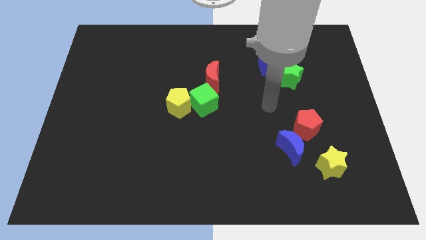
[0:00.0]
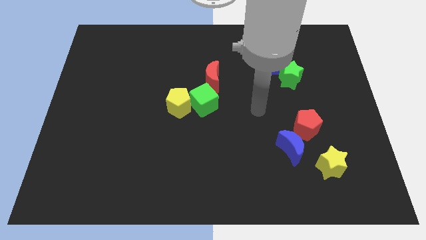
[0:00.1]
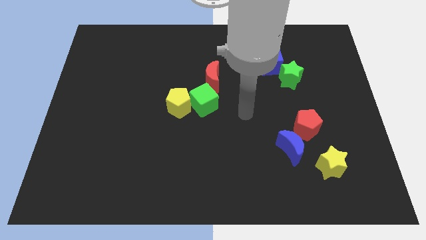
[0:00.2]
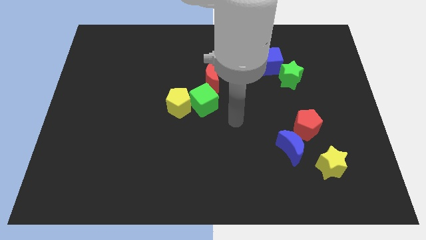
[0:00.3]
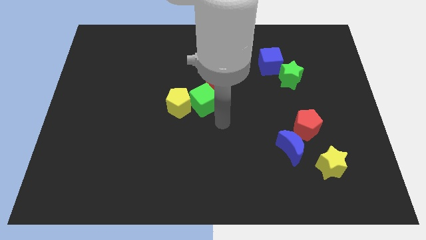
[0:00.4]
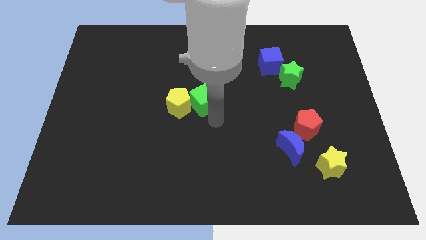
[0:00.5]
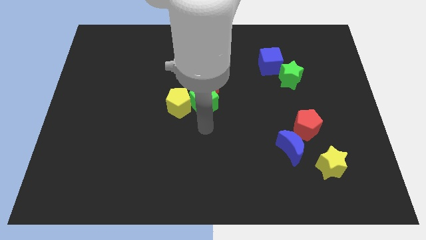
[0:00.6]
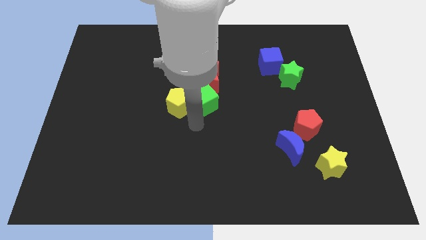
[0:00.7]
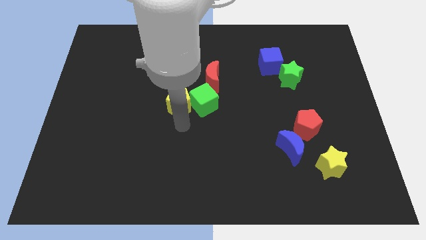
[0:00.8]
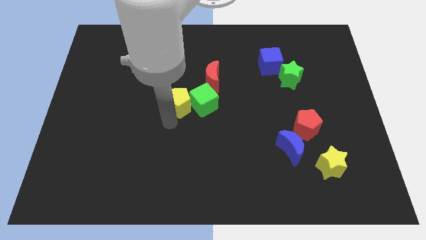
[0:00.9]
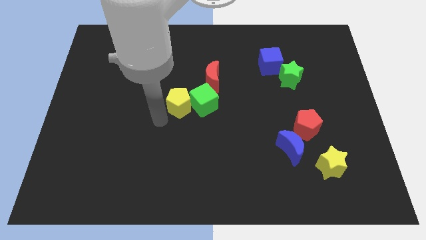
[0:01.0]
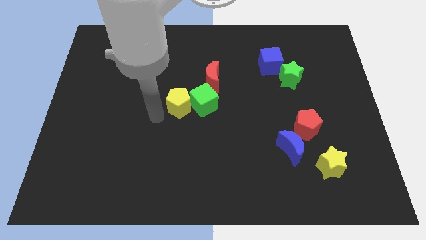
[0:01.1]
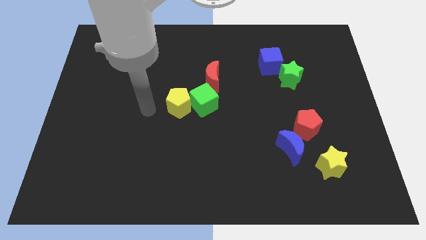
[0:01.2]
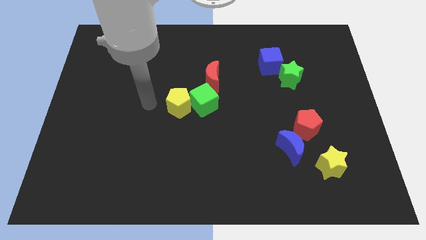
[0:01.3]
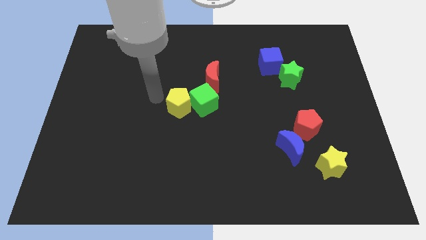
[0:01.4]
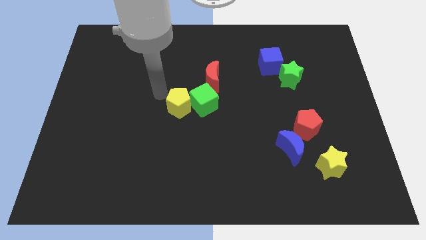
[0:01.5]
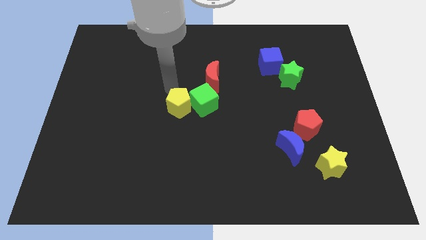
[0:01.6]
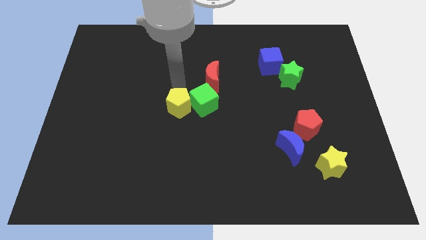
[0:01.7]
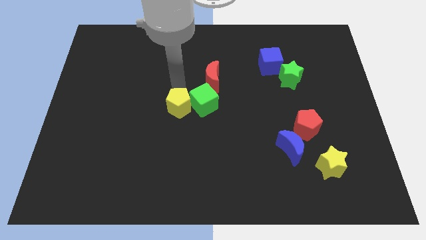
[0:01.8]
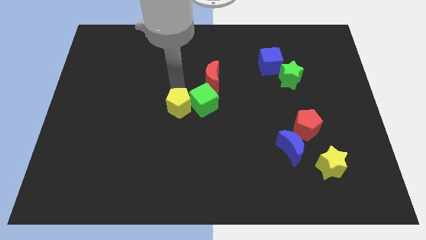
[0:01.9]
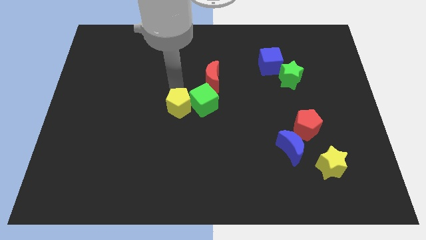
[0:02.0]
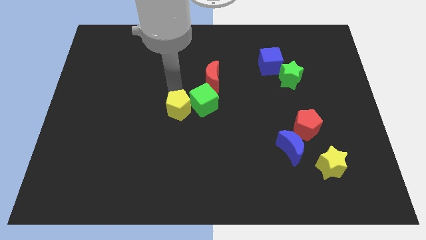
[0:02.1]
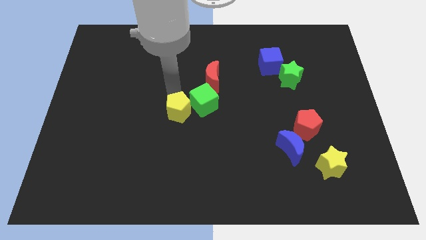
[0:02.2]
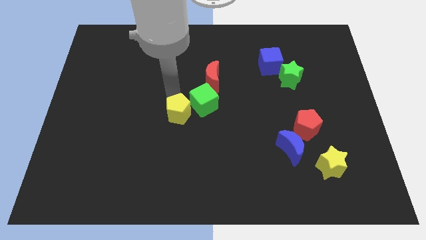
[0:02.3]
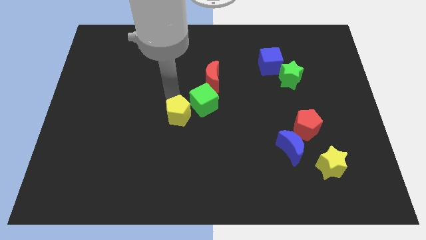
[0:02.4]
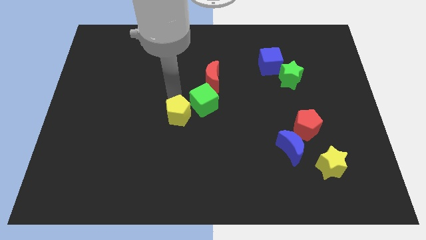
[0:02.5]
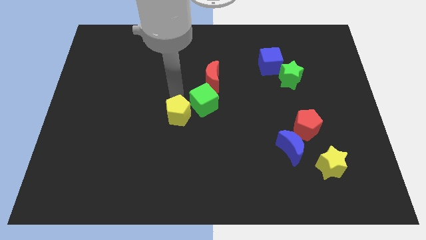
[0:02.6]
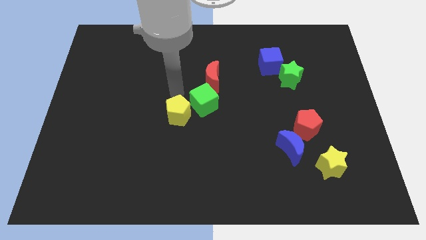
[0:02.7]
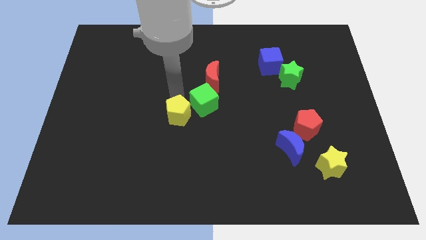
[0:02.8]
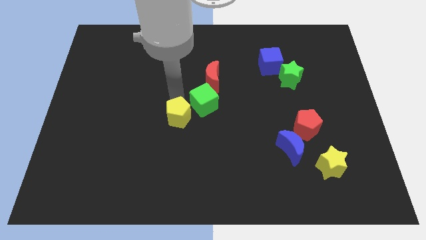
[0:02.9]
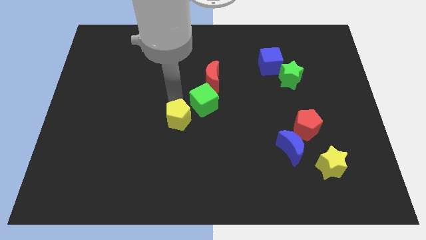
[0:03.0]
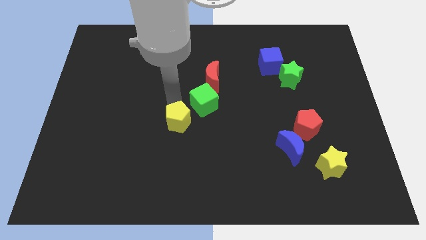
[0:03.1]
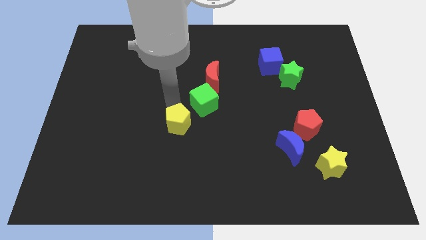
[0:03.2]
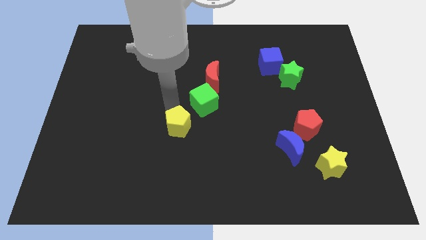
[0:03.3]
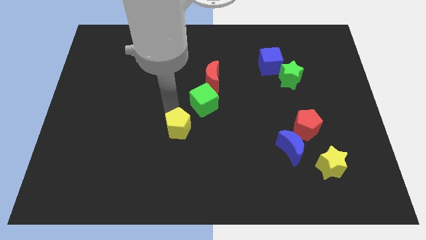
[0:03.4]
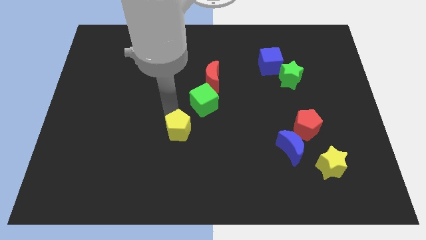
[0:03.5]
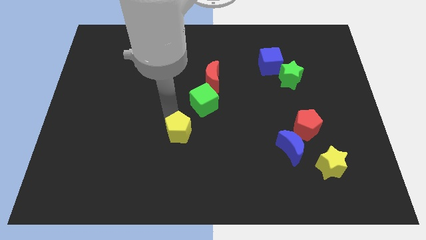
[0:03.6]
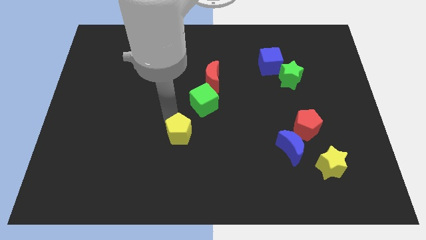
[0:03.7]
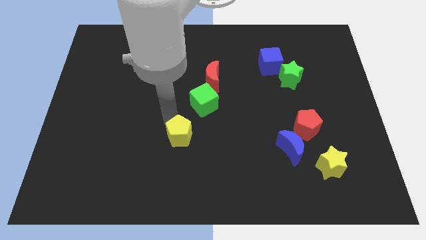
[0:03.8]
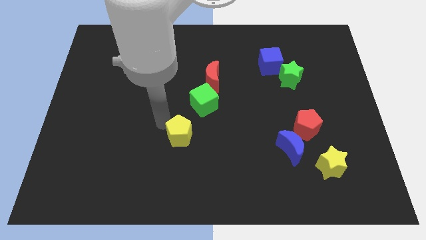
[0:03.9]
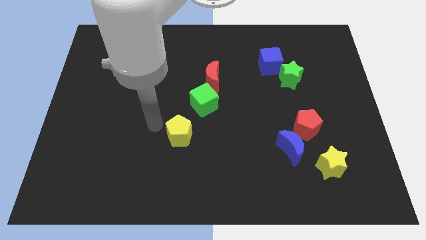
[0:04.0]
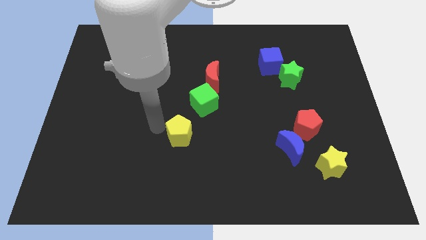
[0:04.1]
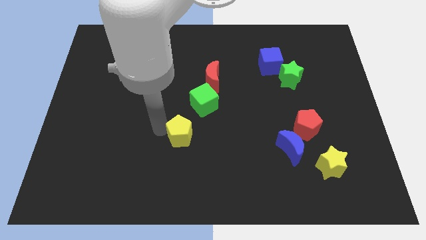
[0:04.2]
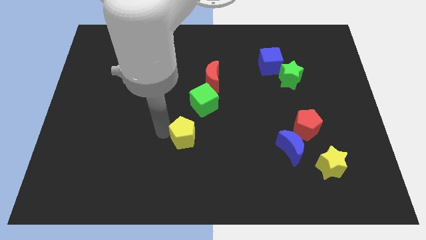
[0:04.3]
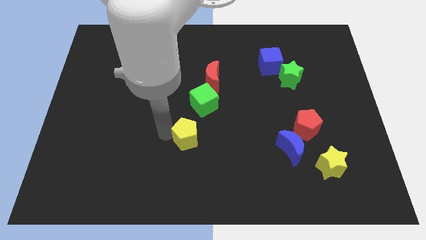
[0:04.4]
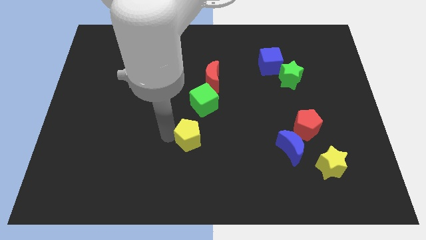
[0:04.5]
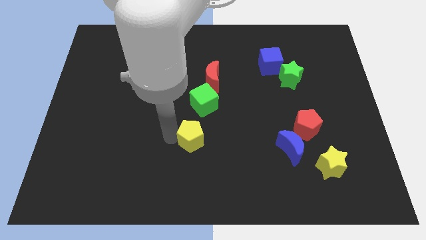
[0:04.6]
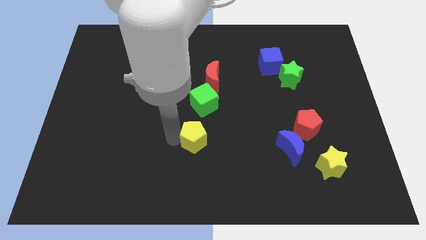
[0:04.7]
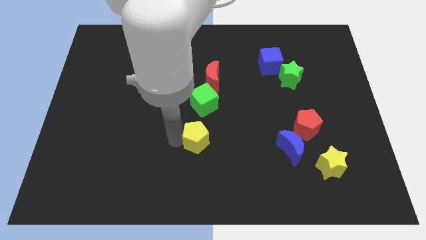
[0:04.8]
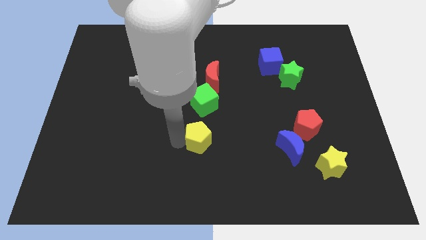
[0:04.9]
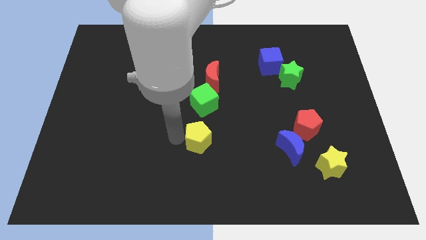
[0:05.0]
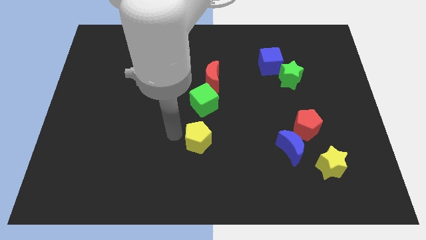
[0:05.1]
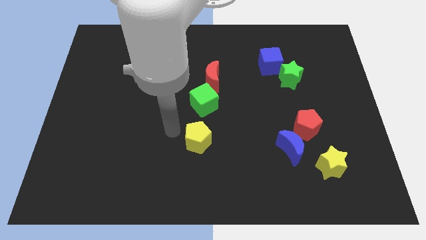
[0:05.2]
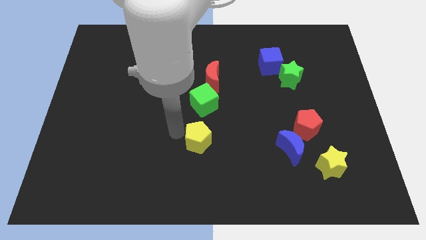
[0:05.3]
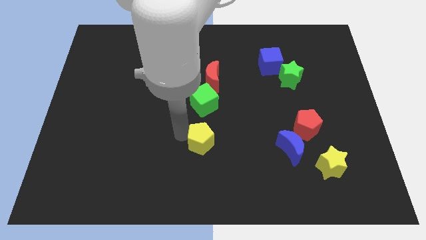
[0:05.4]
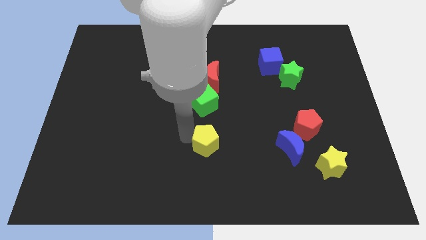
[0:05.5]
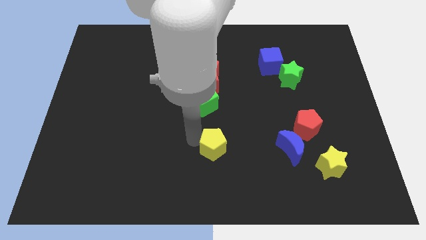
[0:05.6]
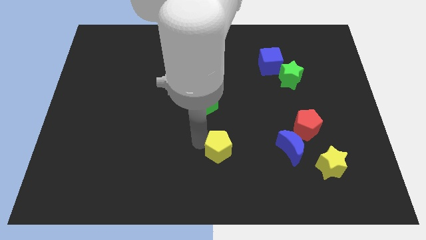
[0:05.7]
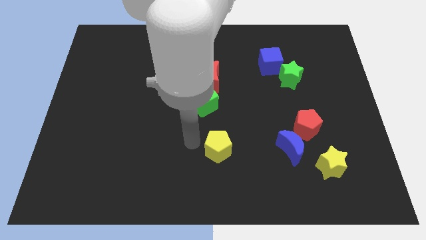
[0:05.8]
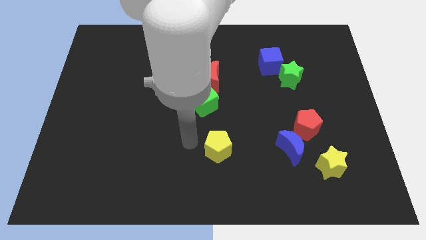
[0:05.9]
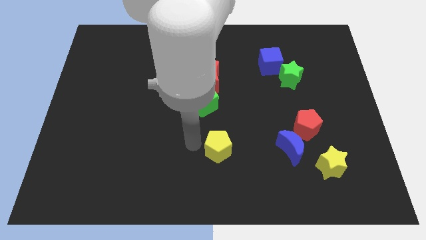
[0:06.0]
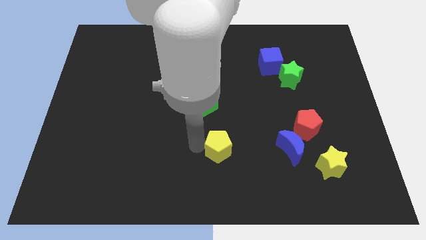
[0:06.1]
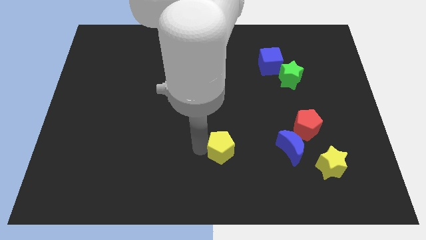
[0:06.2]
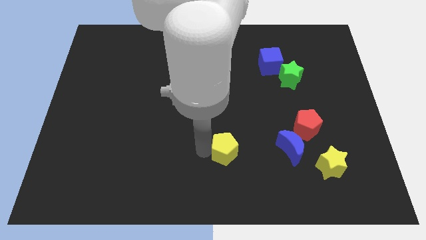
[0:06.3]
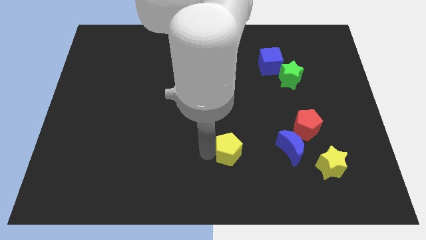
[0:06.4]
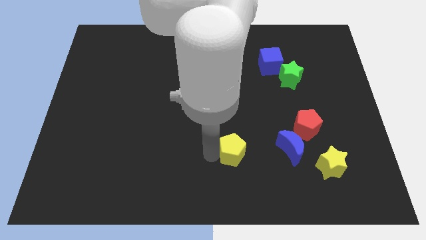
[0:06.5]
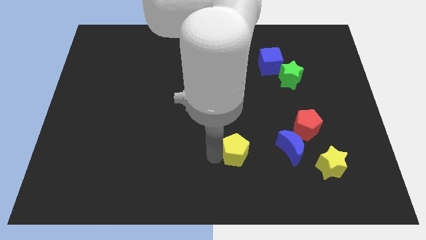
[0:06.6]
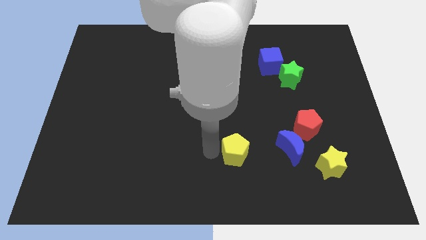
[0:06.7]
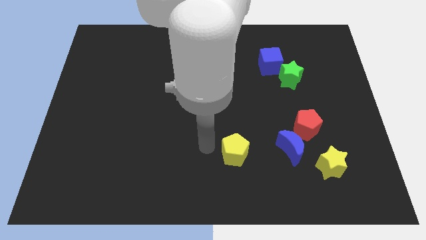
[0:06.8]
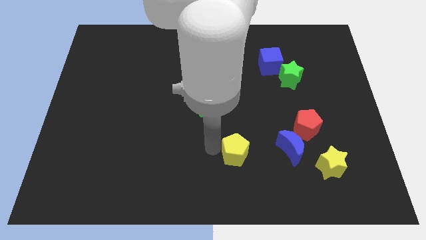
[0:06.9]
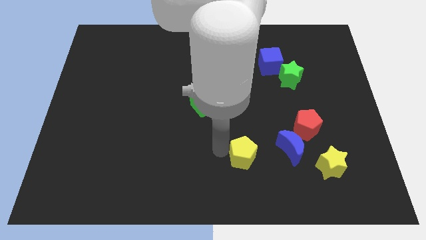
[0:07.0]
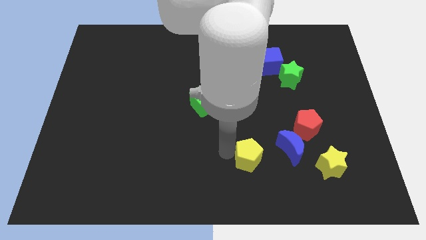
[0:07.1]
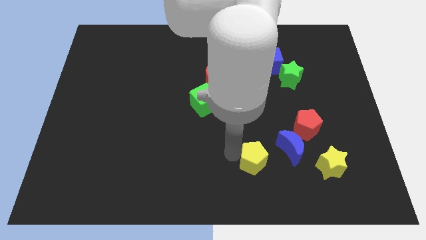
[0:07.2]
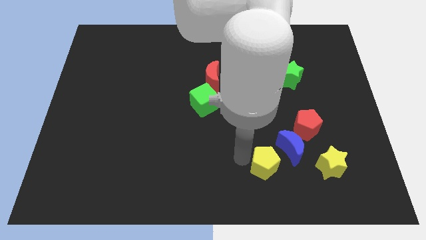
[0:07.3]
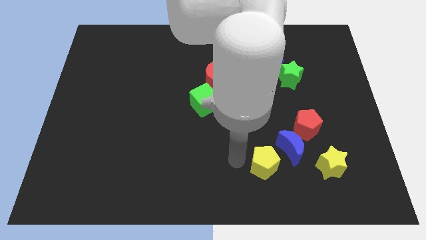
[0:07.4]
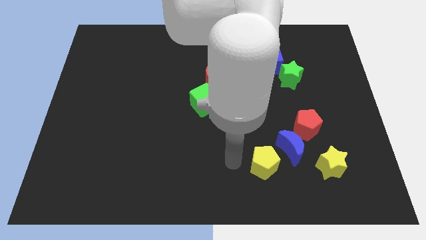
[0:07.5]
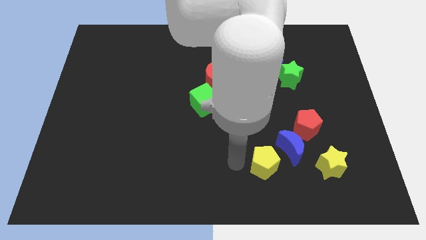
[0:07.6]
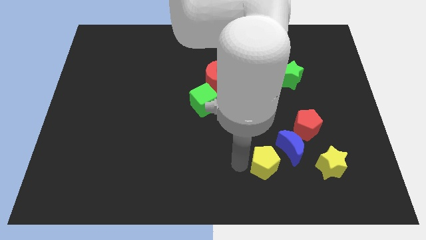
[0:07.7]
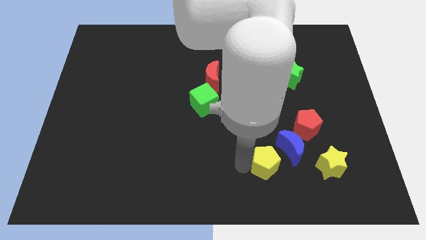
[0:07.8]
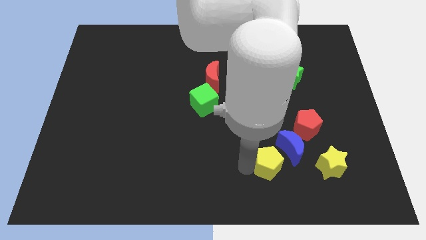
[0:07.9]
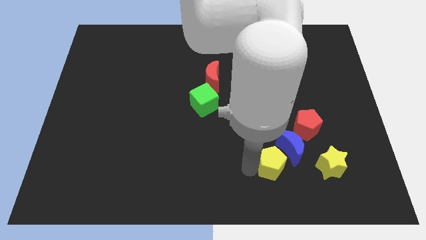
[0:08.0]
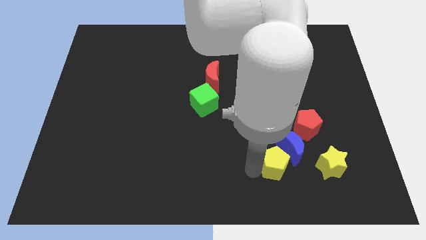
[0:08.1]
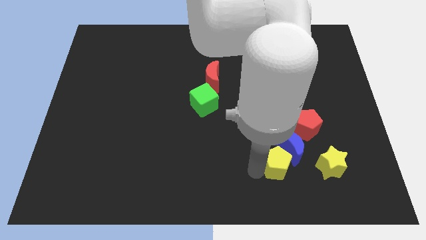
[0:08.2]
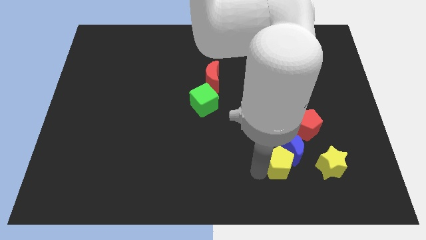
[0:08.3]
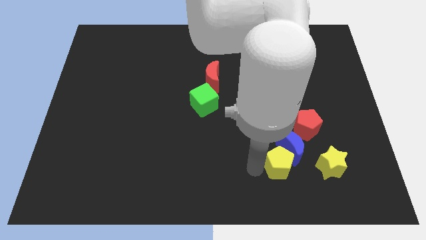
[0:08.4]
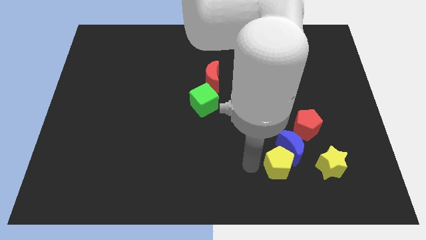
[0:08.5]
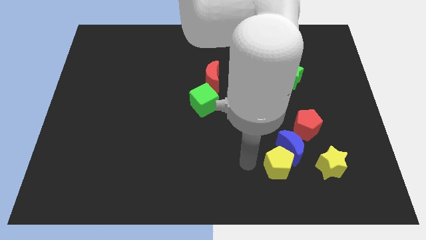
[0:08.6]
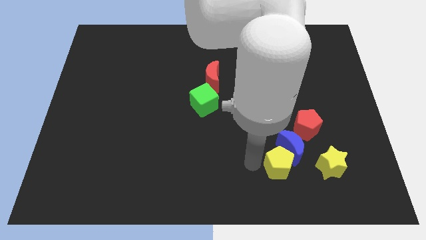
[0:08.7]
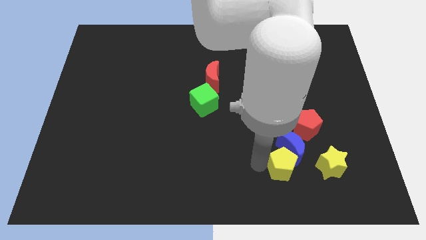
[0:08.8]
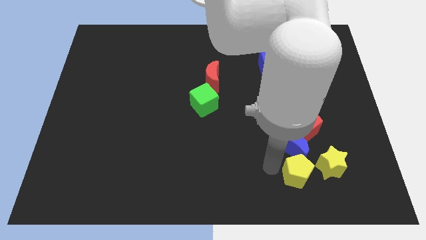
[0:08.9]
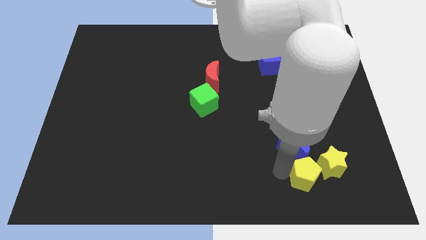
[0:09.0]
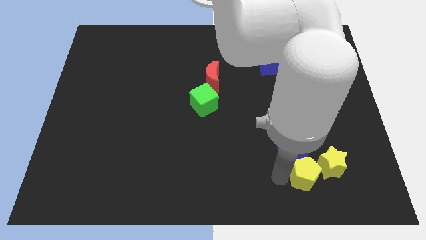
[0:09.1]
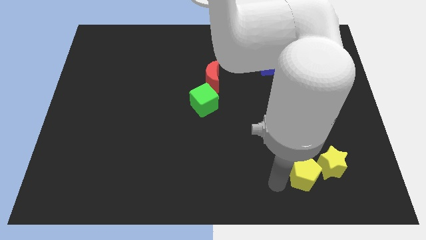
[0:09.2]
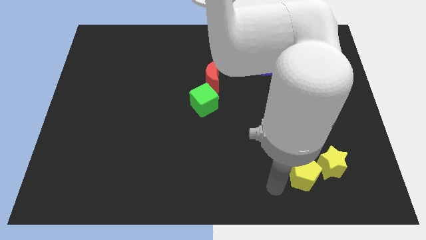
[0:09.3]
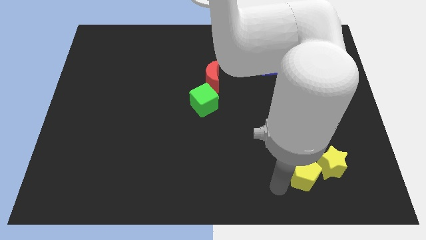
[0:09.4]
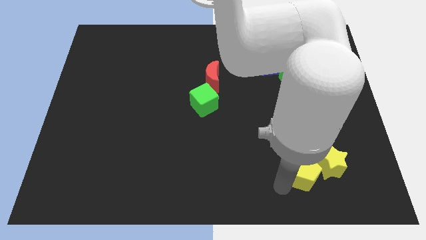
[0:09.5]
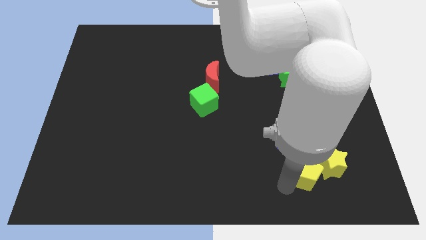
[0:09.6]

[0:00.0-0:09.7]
put the yellow pentagon to the yellow star
